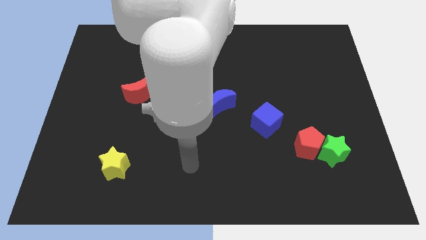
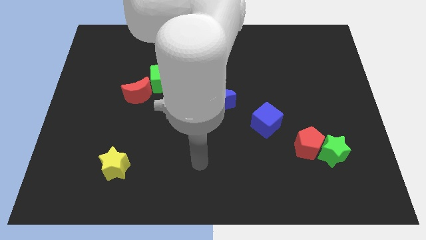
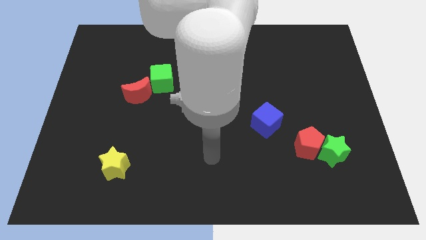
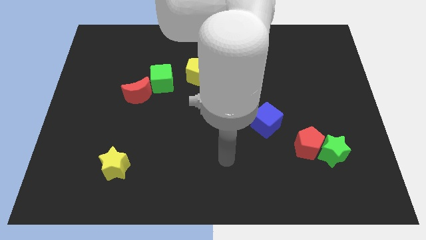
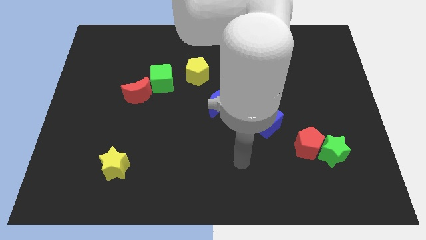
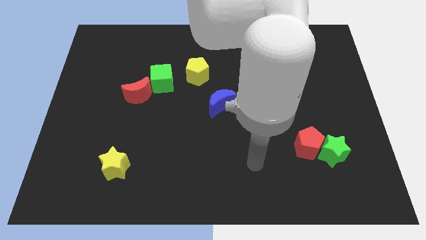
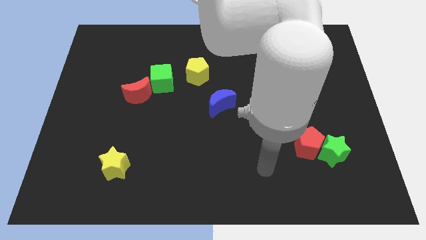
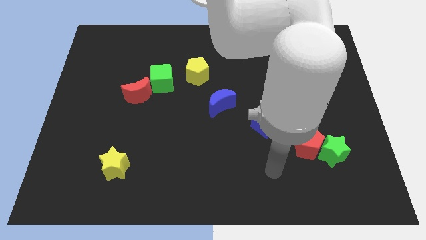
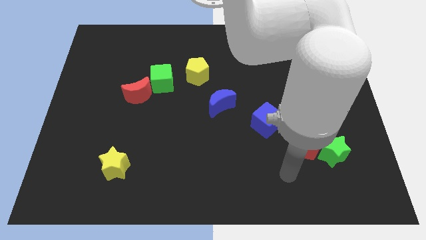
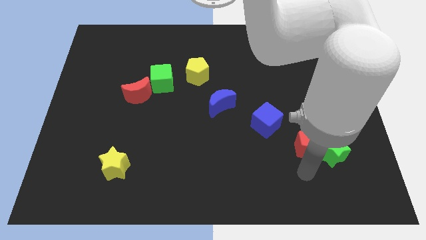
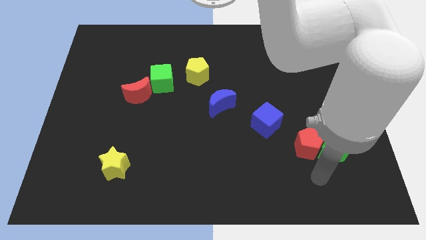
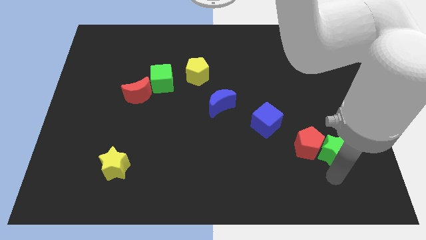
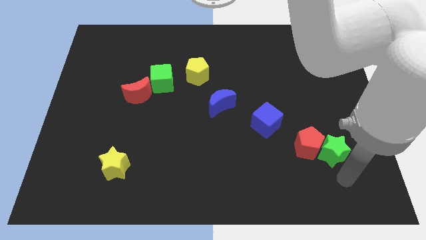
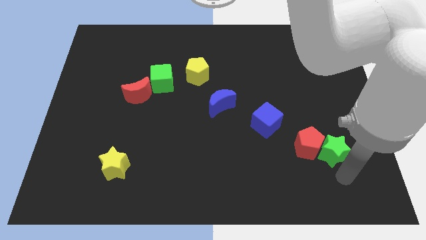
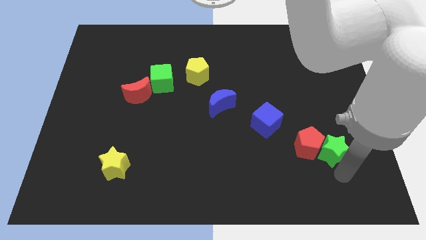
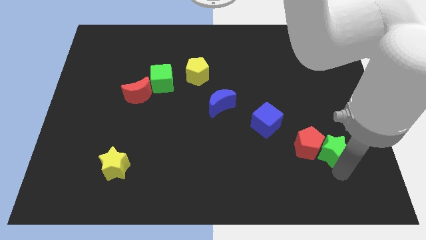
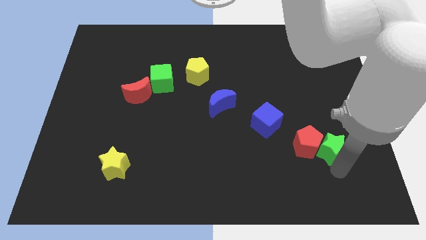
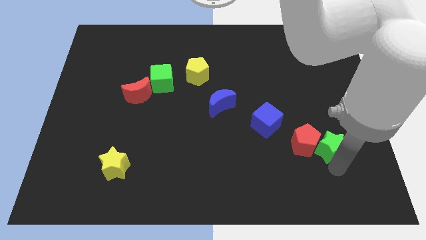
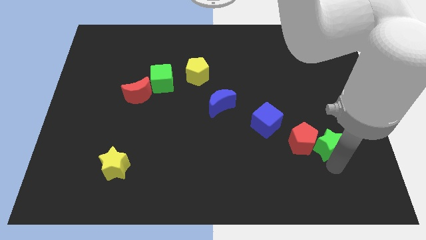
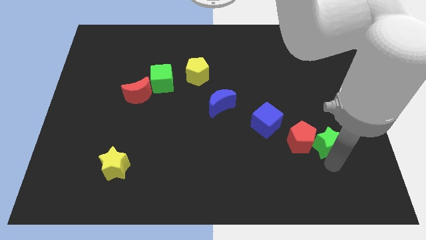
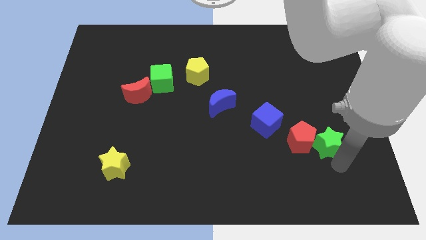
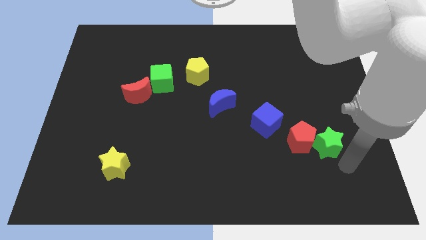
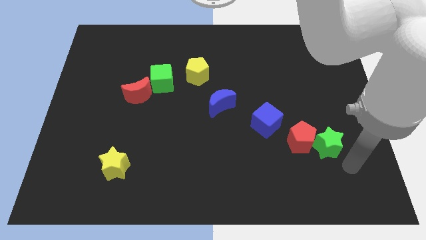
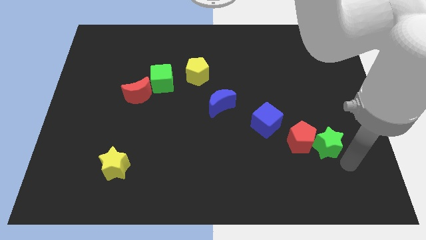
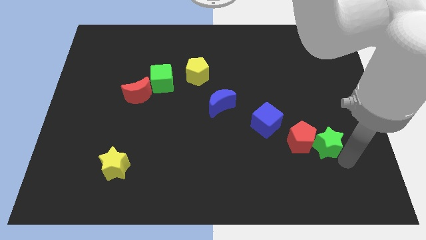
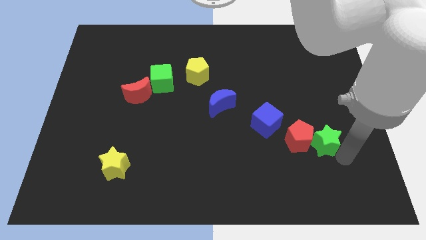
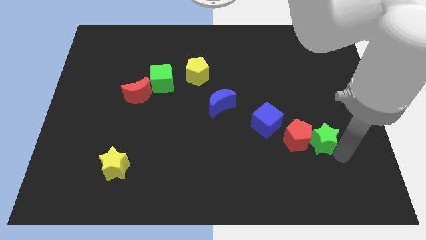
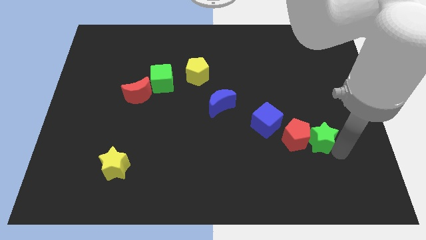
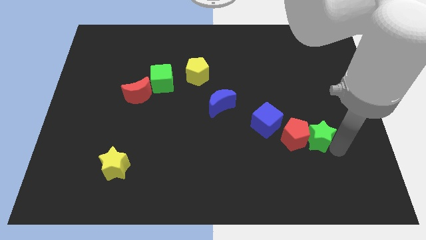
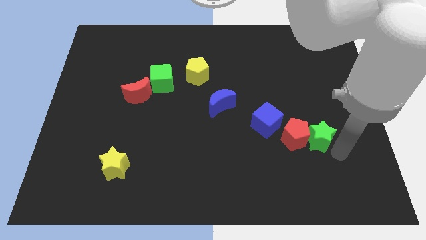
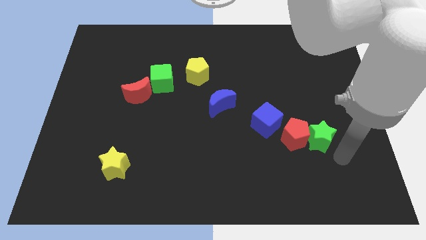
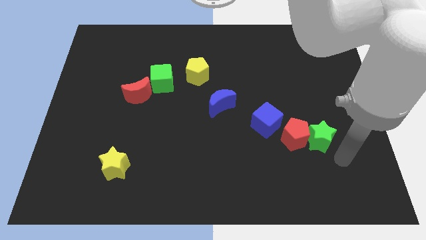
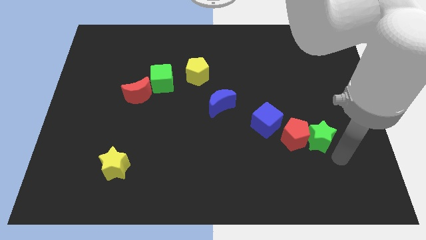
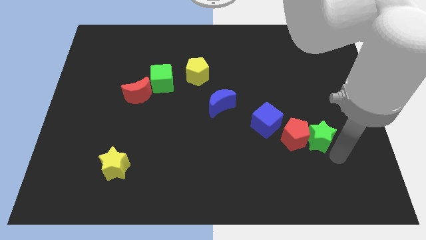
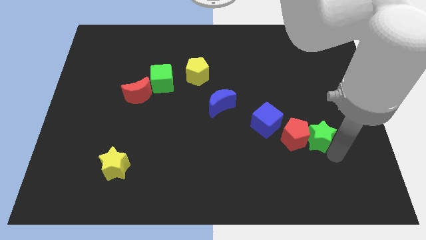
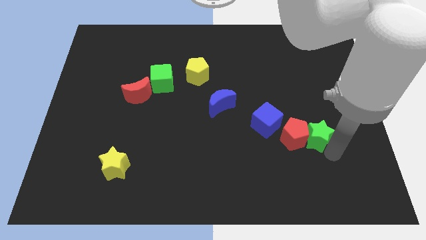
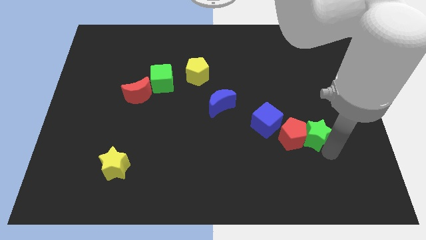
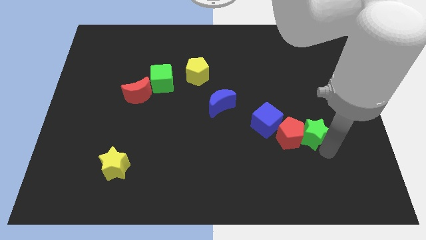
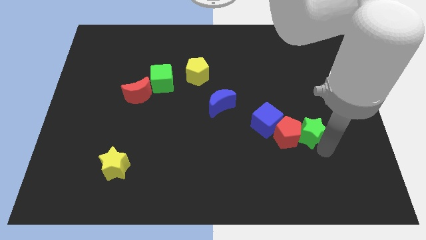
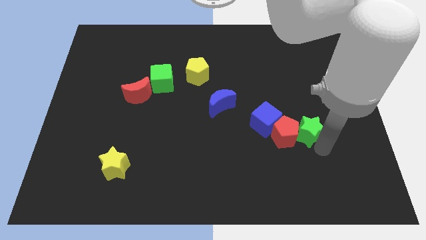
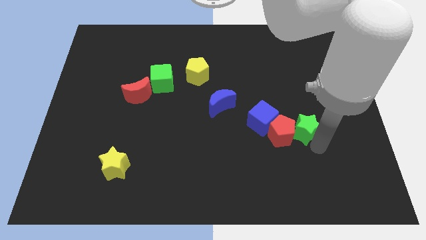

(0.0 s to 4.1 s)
slide the green star diagonally upwards and left a little

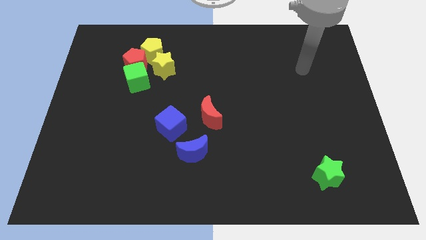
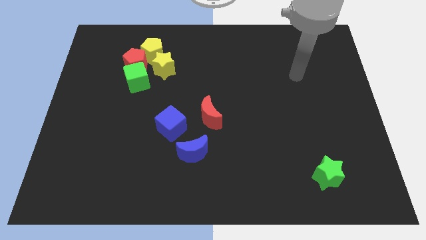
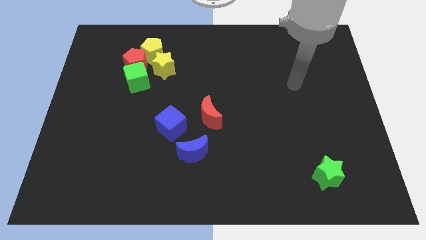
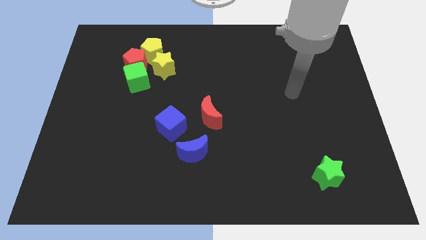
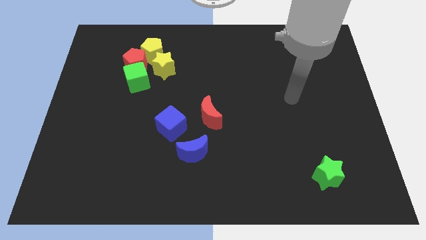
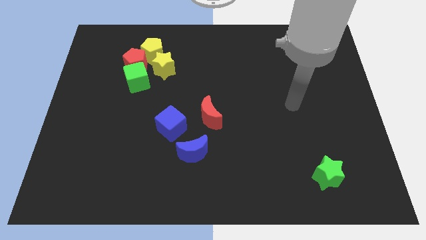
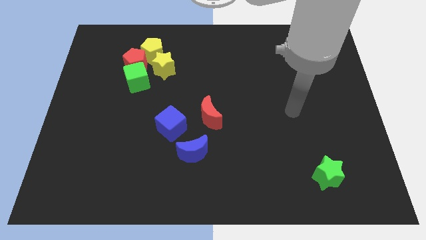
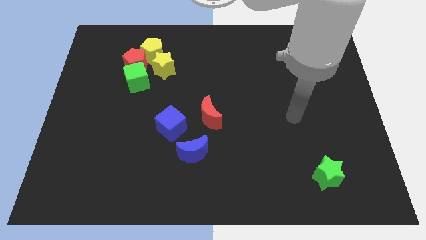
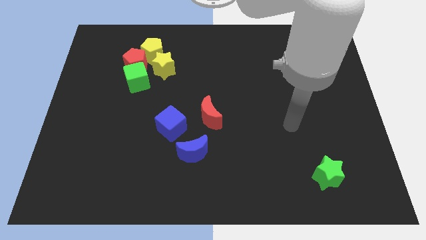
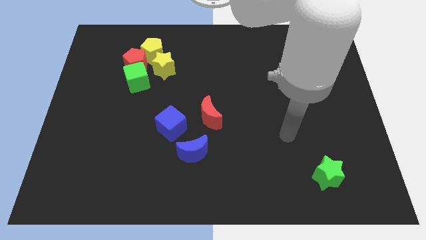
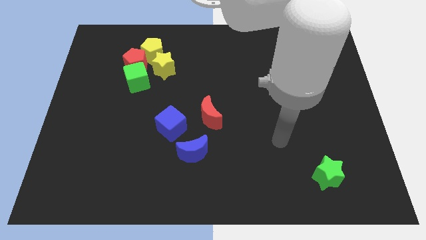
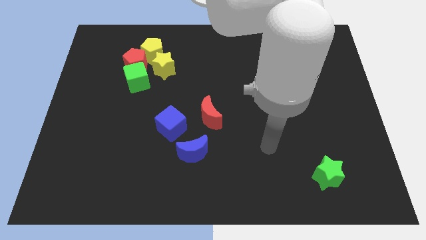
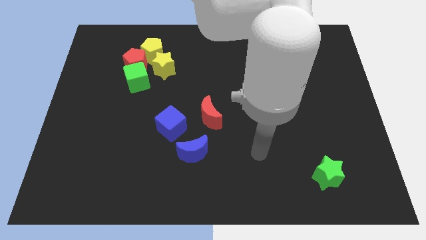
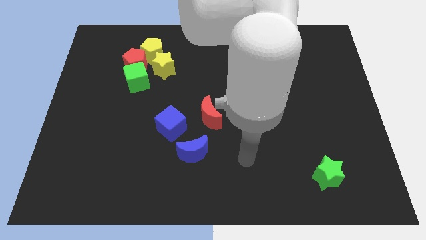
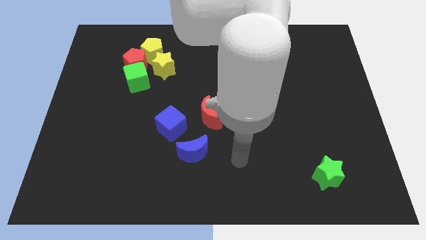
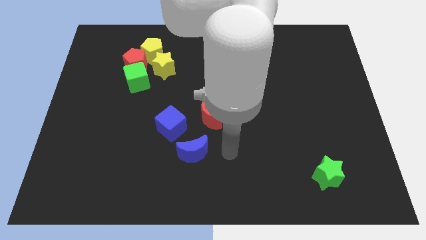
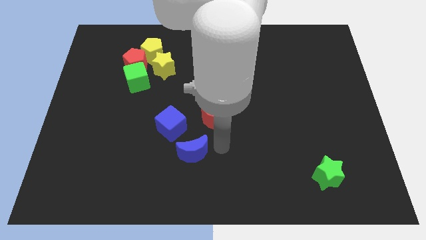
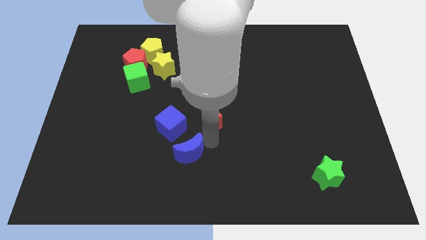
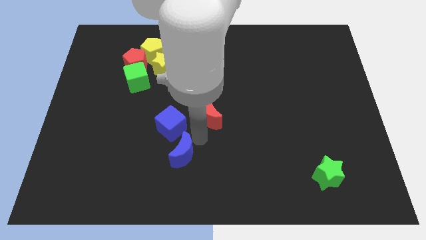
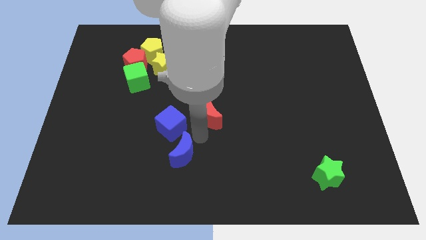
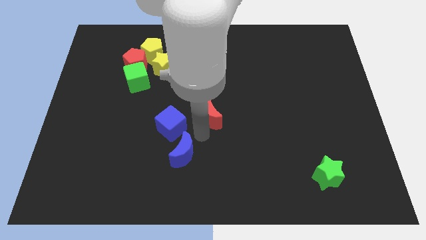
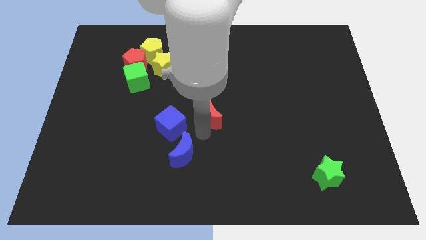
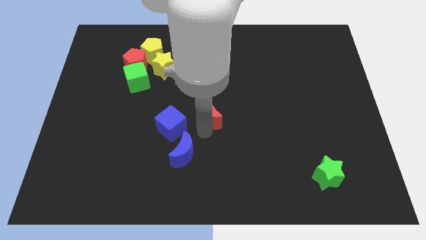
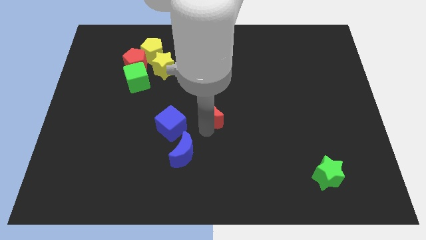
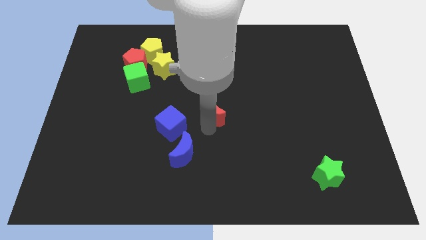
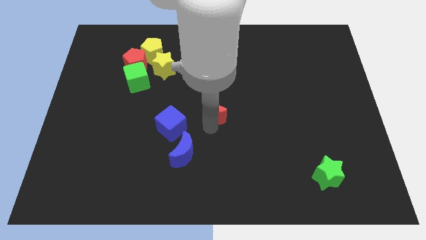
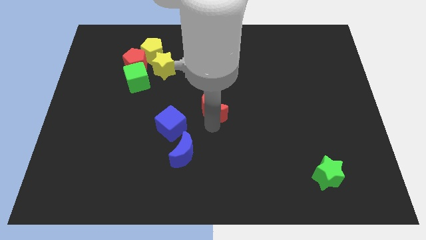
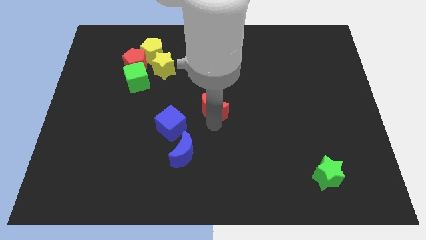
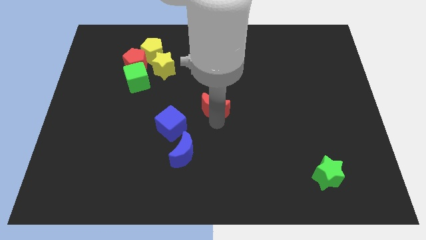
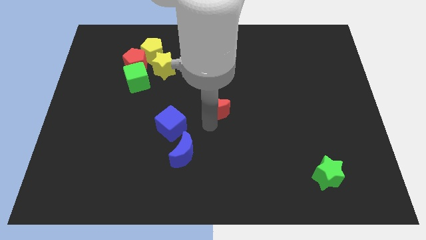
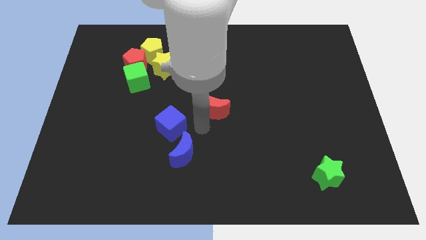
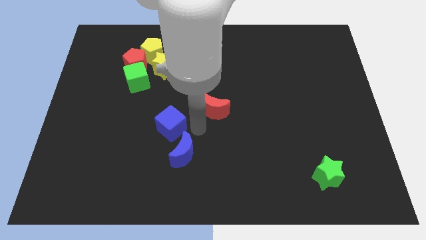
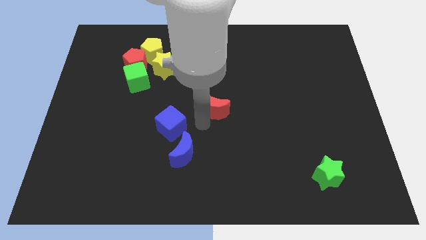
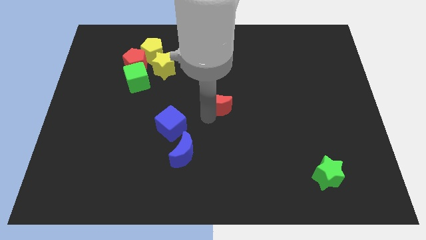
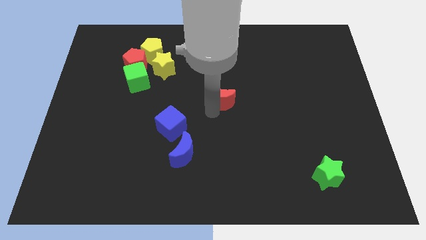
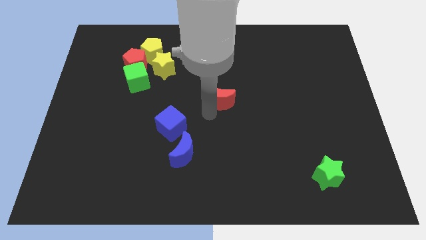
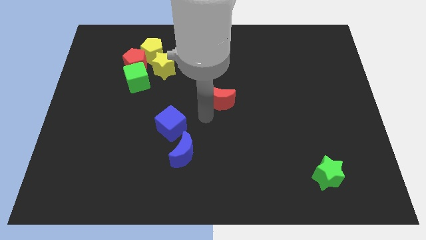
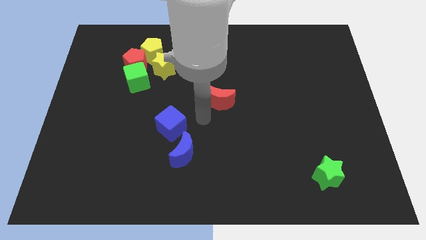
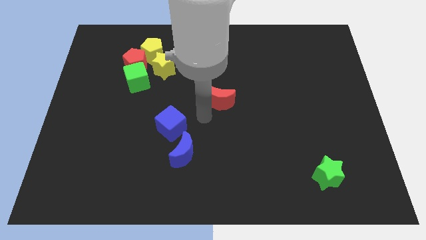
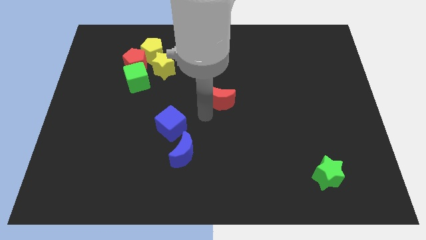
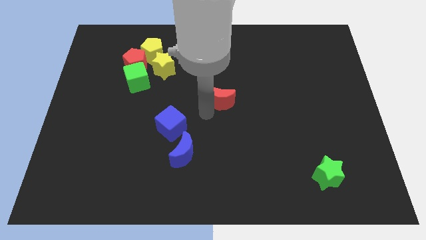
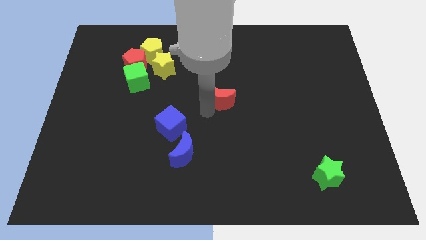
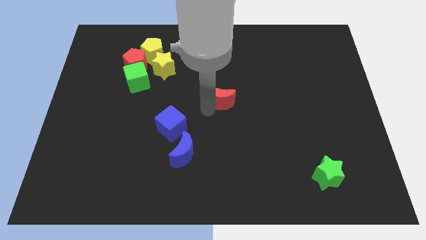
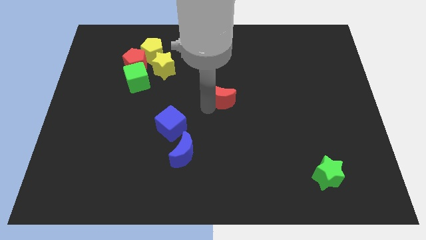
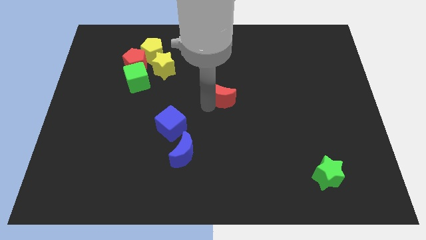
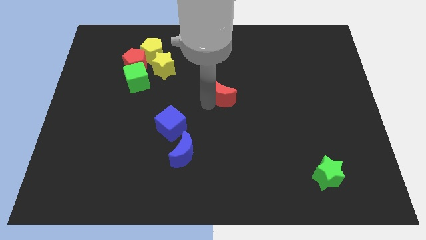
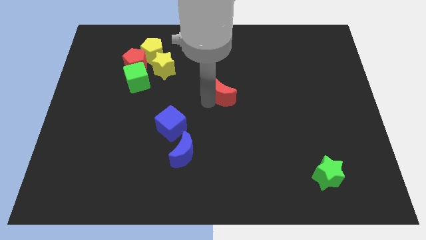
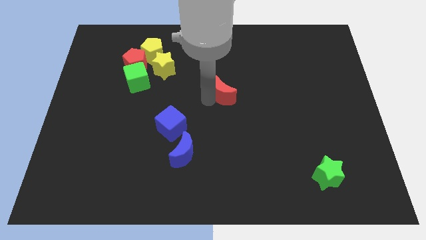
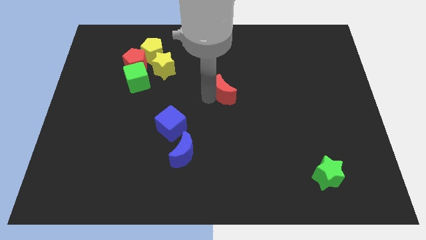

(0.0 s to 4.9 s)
push the red moon a little diagonally up and right
